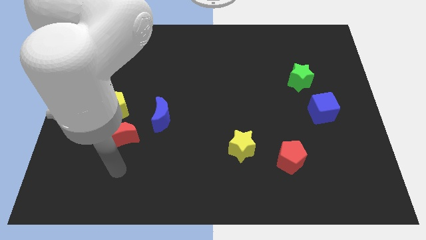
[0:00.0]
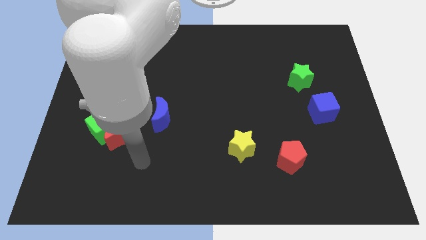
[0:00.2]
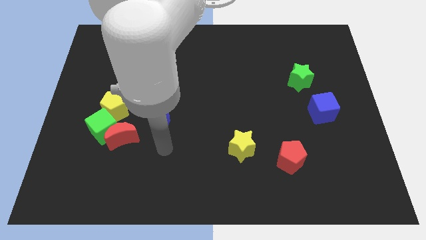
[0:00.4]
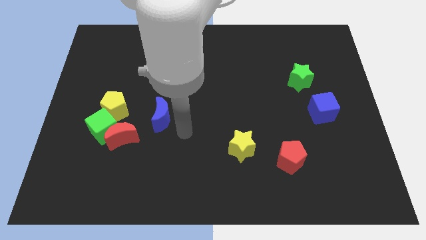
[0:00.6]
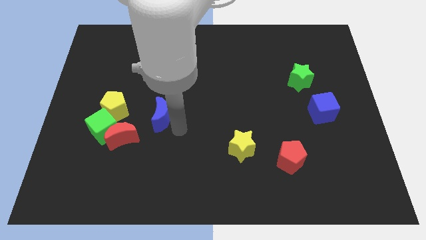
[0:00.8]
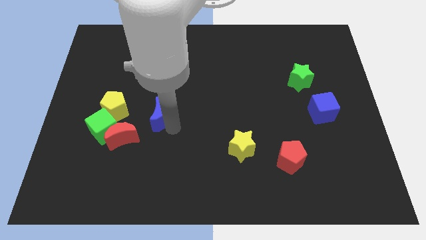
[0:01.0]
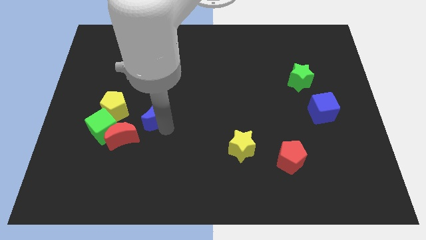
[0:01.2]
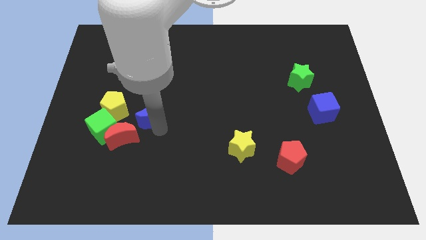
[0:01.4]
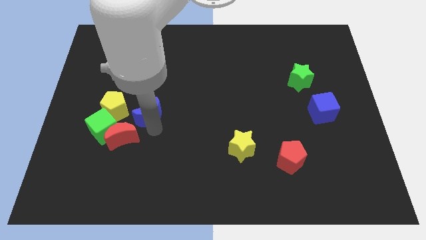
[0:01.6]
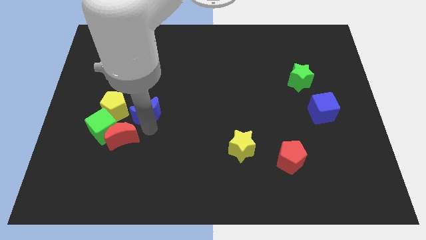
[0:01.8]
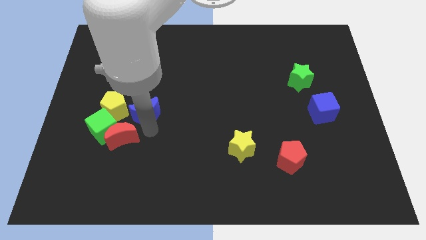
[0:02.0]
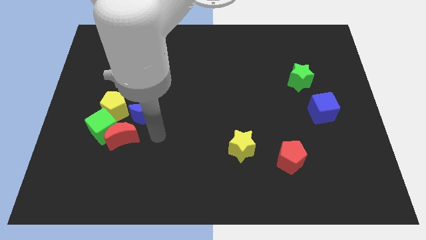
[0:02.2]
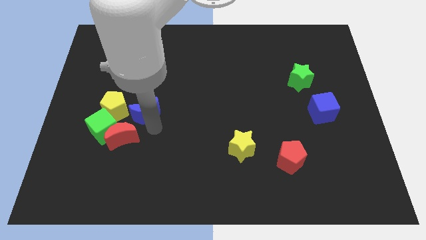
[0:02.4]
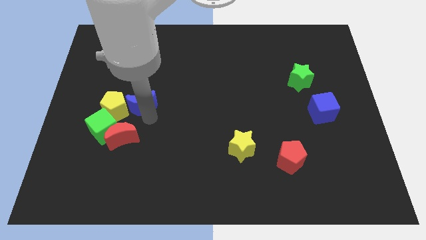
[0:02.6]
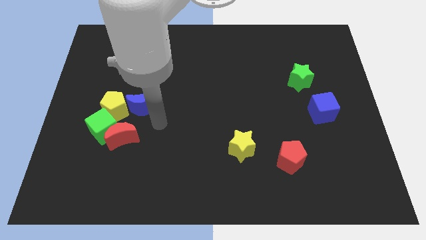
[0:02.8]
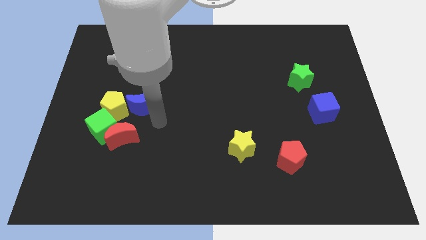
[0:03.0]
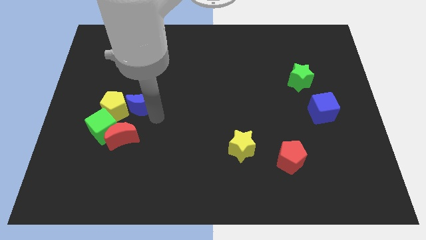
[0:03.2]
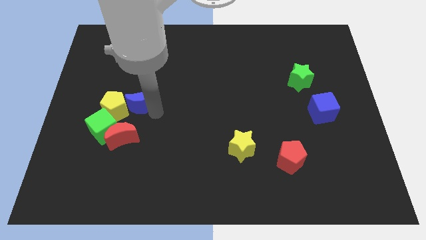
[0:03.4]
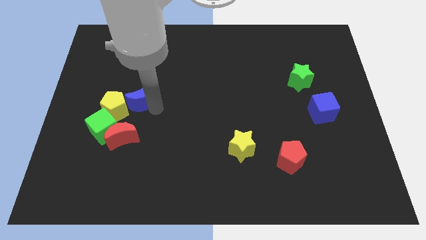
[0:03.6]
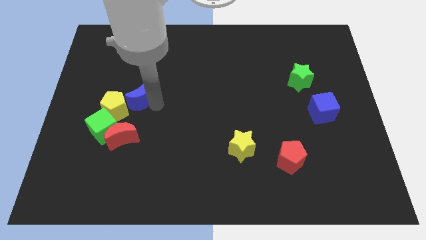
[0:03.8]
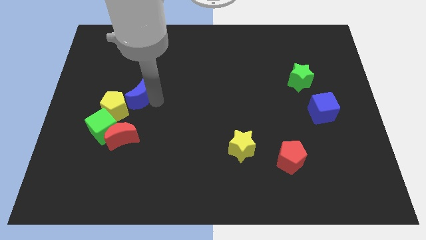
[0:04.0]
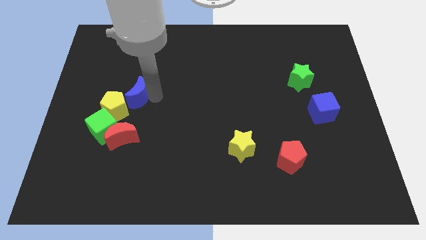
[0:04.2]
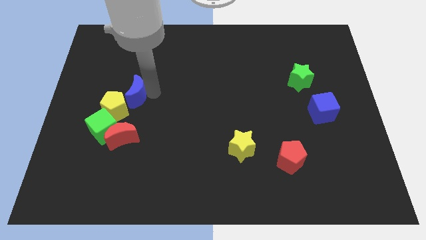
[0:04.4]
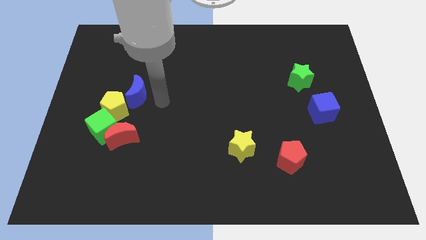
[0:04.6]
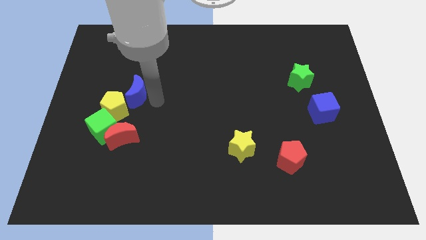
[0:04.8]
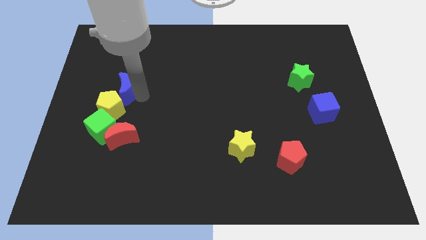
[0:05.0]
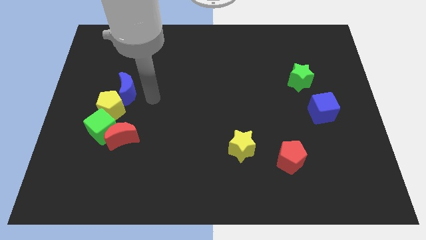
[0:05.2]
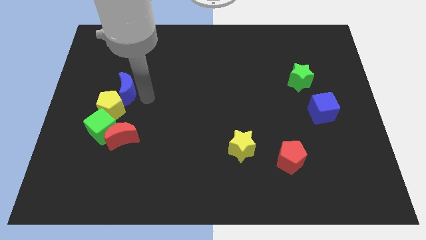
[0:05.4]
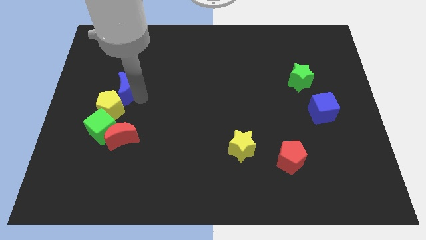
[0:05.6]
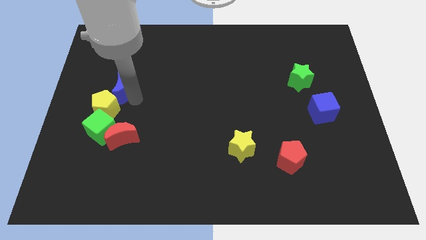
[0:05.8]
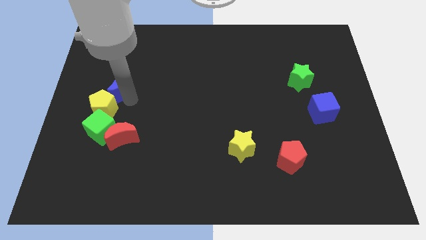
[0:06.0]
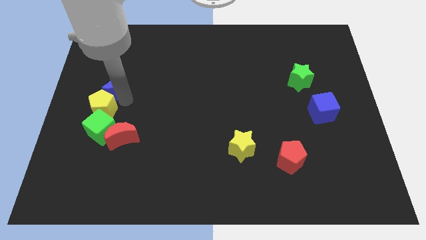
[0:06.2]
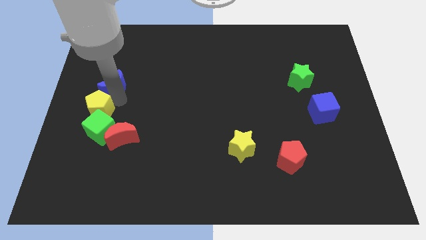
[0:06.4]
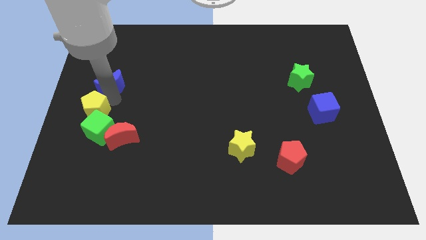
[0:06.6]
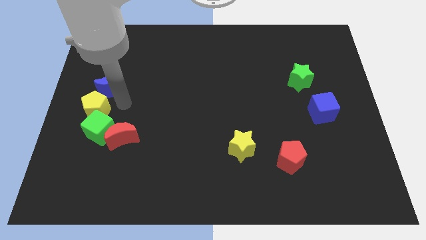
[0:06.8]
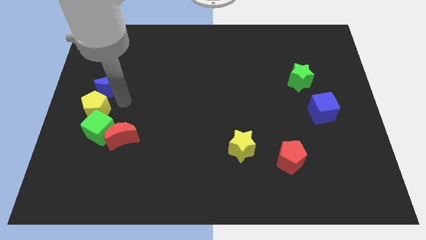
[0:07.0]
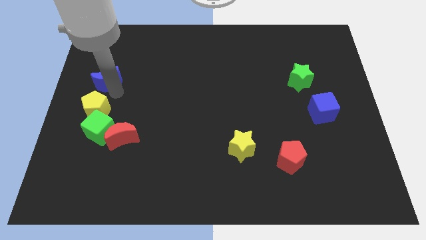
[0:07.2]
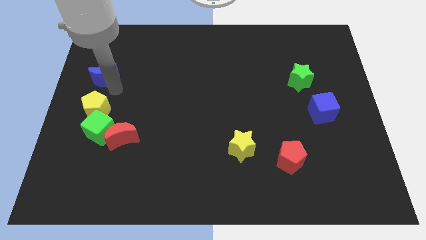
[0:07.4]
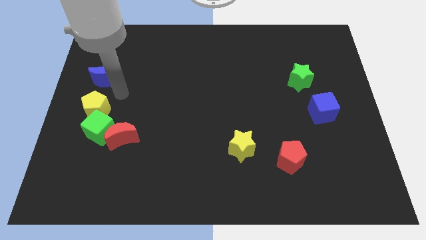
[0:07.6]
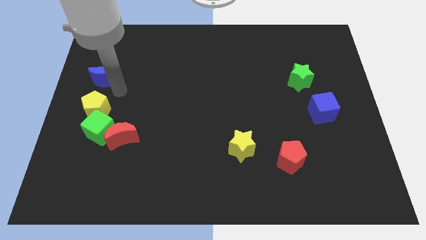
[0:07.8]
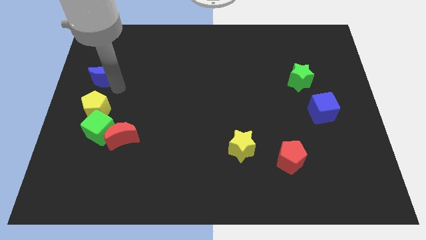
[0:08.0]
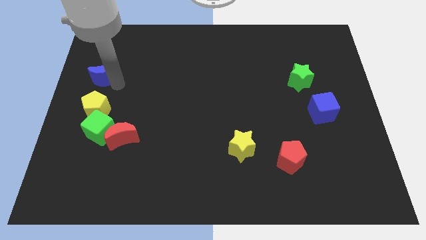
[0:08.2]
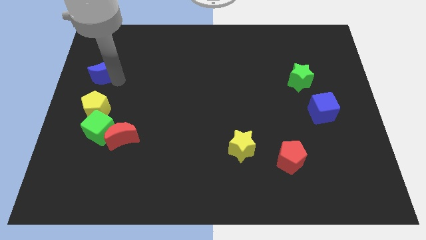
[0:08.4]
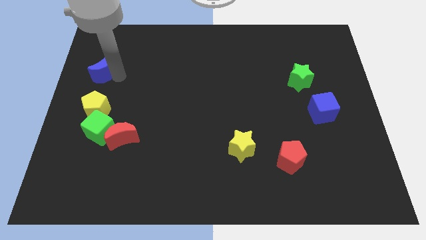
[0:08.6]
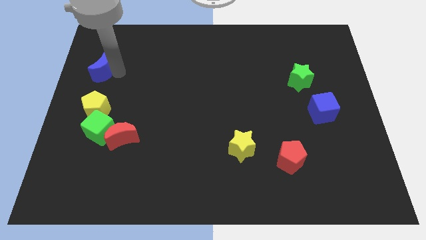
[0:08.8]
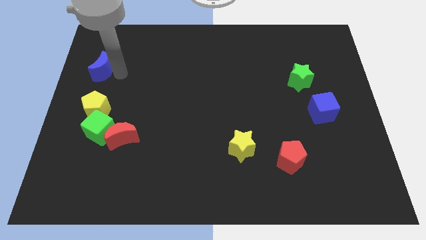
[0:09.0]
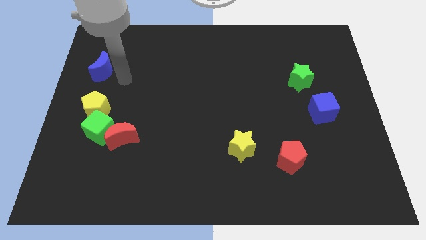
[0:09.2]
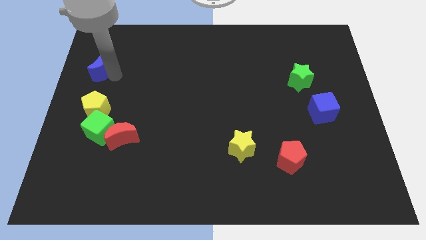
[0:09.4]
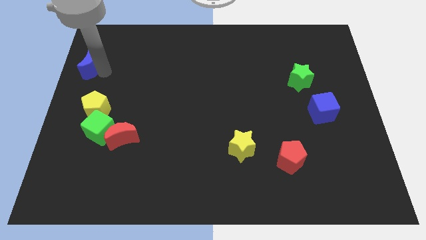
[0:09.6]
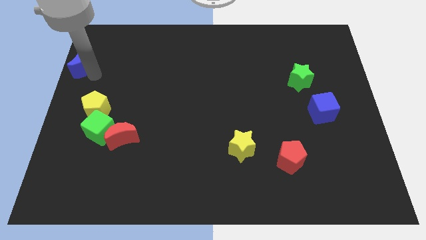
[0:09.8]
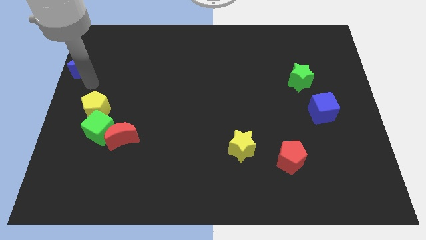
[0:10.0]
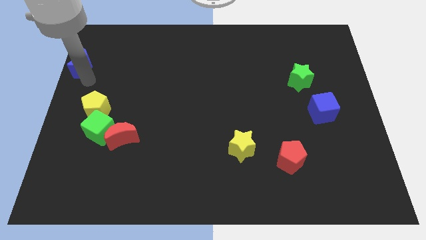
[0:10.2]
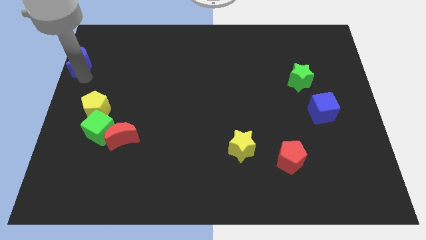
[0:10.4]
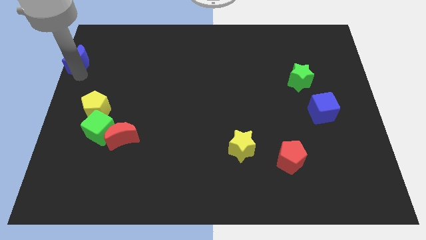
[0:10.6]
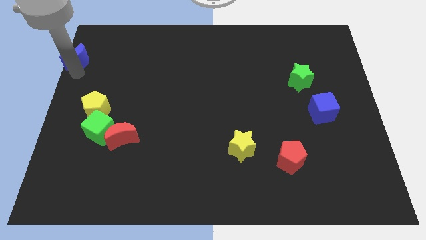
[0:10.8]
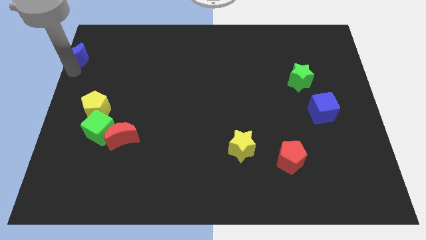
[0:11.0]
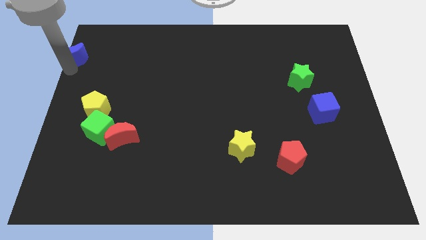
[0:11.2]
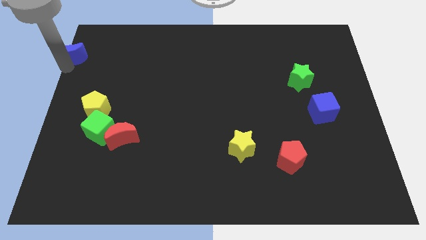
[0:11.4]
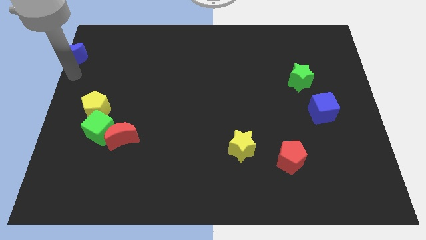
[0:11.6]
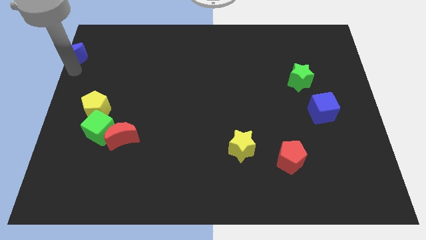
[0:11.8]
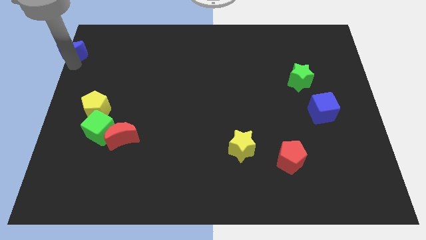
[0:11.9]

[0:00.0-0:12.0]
push the blue moon to the upper left corner

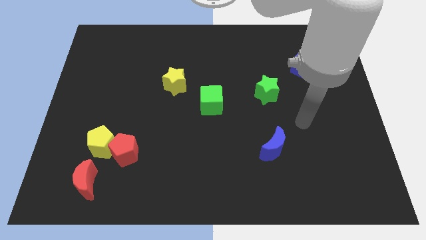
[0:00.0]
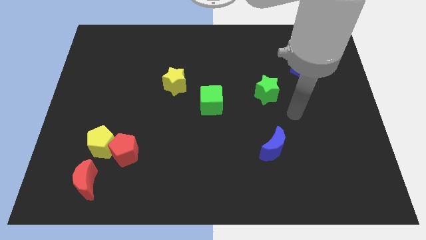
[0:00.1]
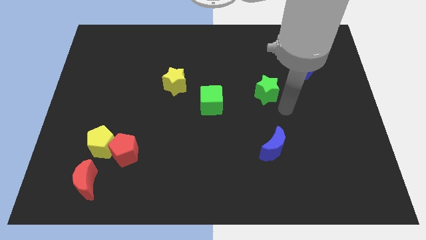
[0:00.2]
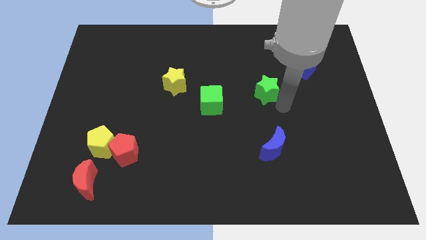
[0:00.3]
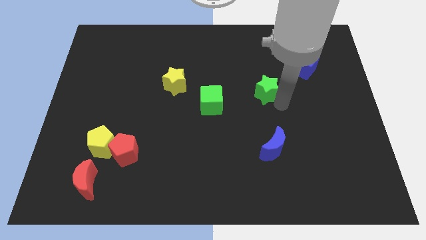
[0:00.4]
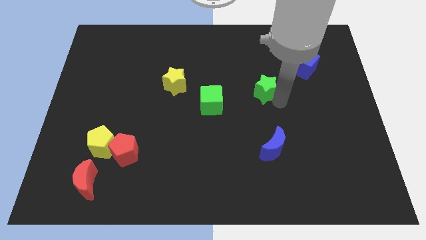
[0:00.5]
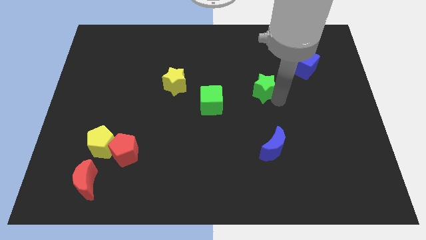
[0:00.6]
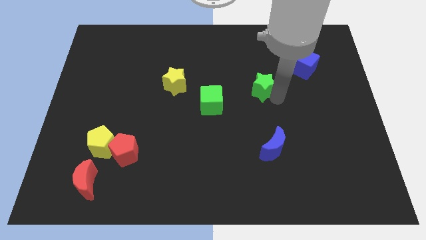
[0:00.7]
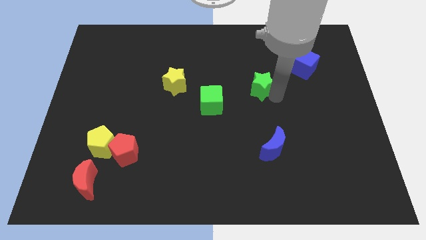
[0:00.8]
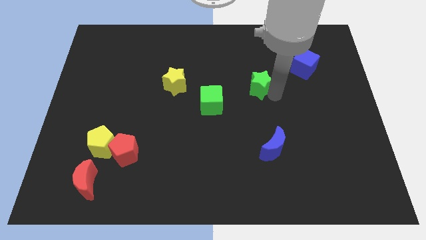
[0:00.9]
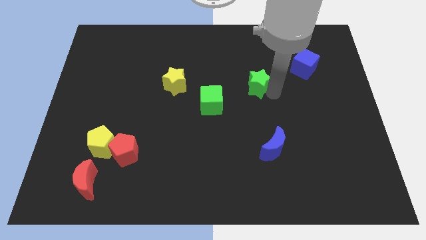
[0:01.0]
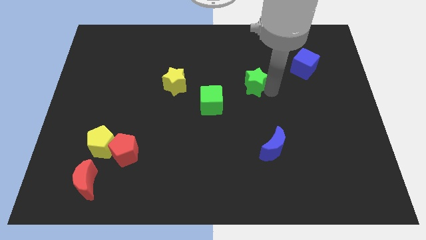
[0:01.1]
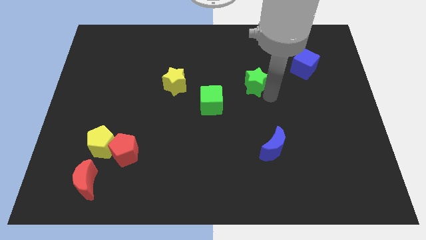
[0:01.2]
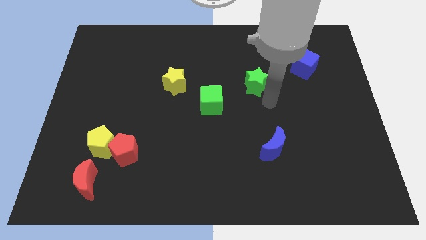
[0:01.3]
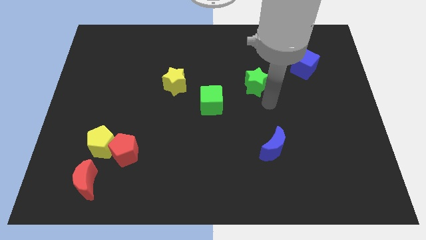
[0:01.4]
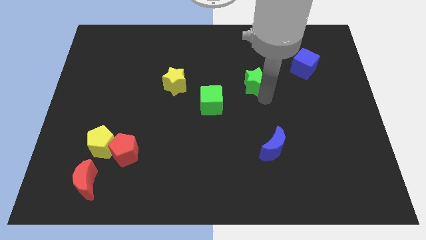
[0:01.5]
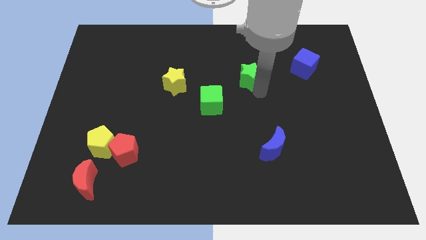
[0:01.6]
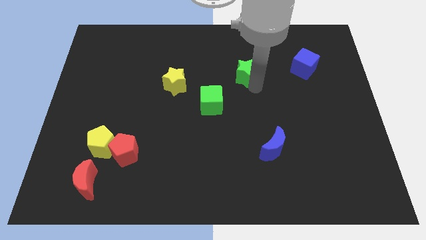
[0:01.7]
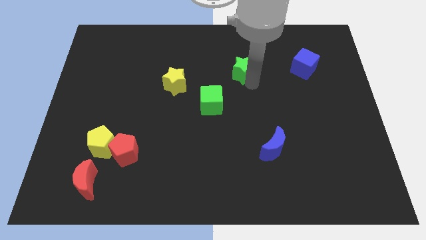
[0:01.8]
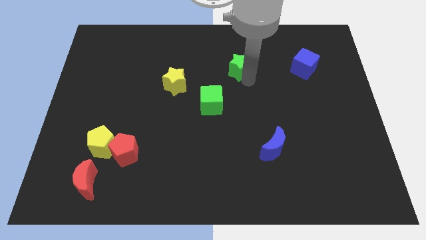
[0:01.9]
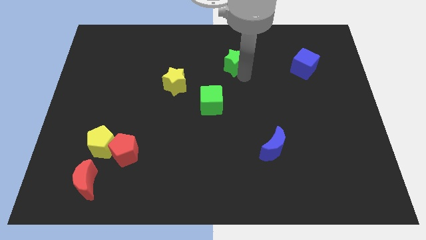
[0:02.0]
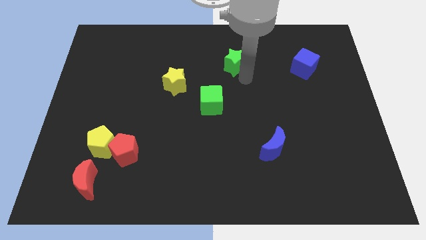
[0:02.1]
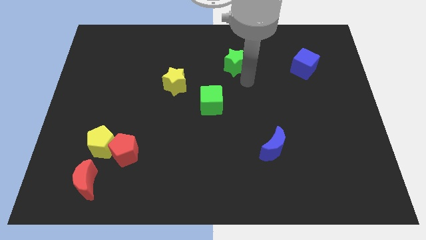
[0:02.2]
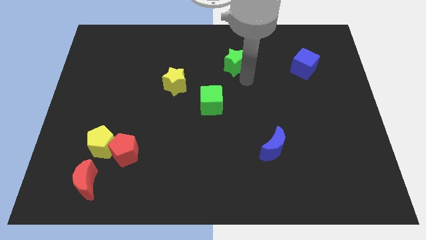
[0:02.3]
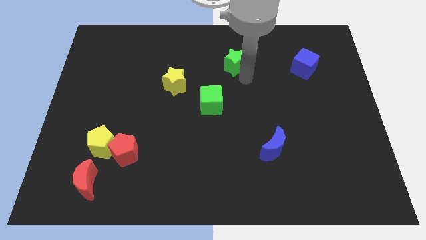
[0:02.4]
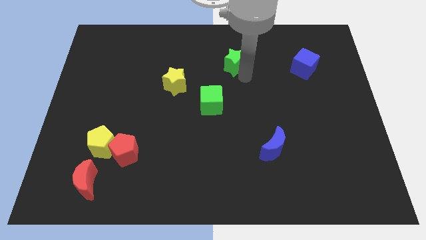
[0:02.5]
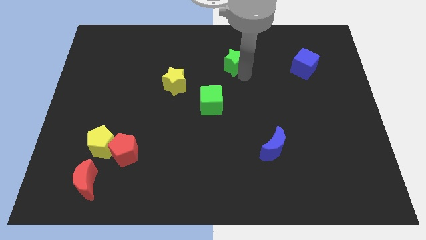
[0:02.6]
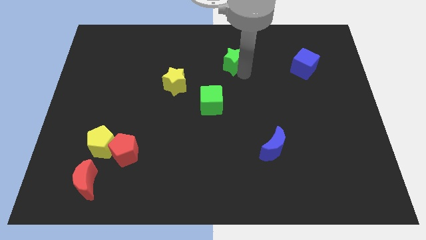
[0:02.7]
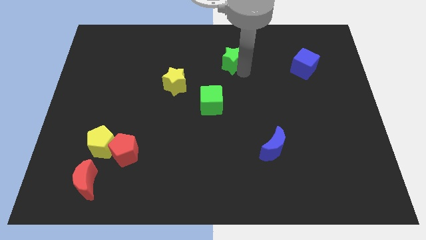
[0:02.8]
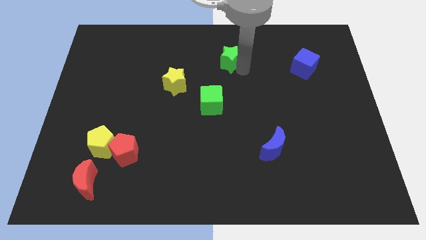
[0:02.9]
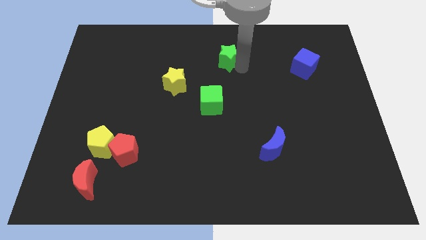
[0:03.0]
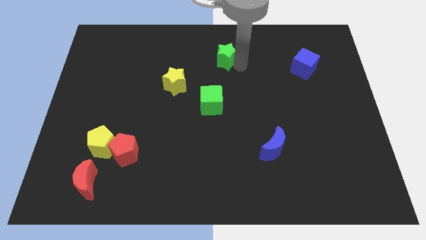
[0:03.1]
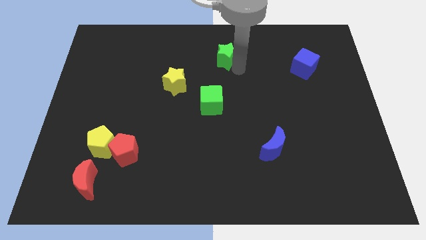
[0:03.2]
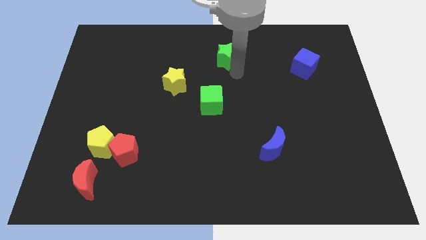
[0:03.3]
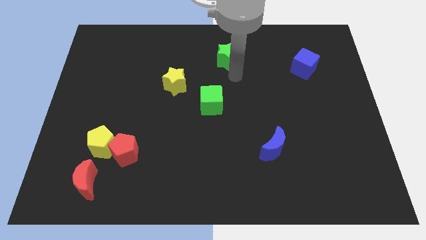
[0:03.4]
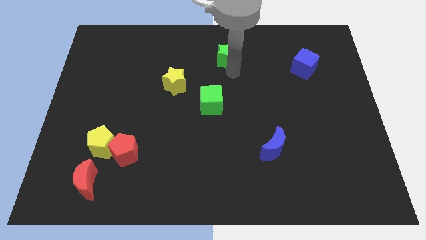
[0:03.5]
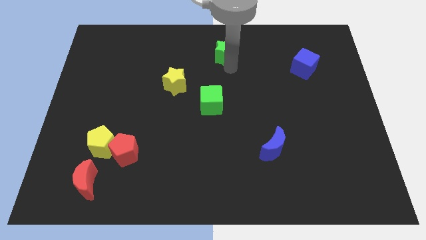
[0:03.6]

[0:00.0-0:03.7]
slide the green star to the top
